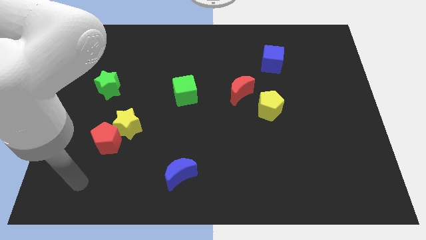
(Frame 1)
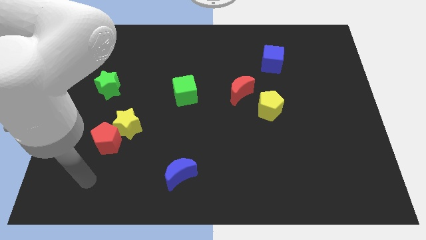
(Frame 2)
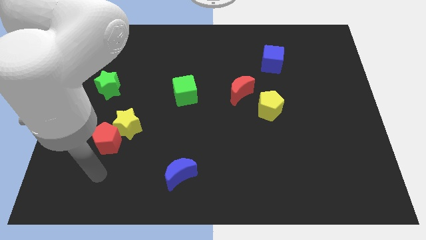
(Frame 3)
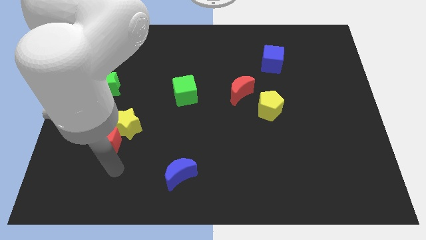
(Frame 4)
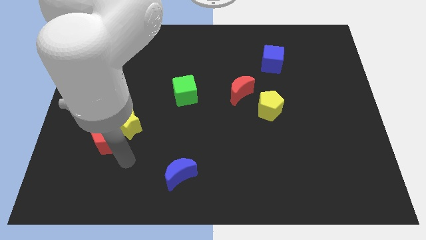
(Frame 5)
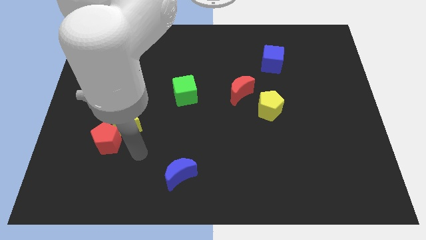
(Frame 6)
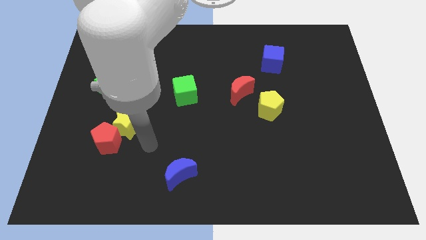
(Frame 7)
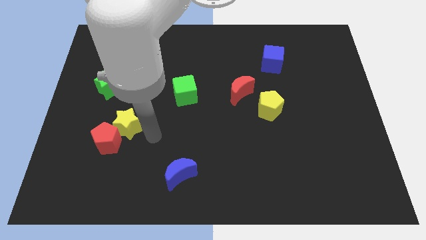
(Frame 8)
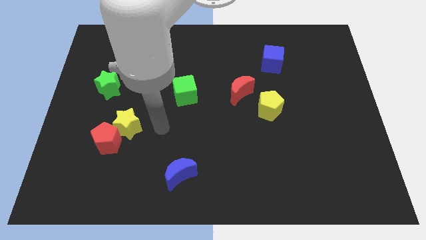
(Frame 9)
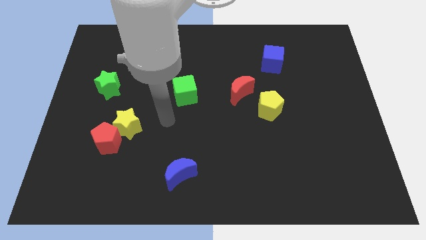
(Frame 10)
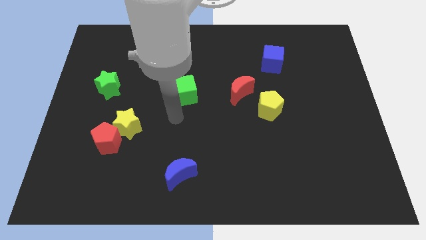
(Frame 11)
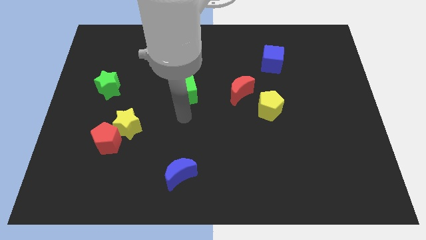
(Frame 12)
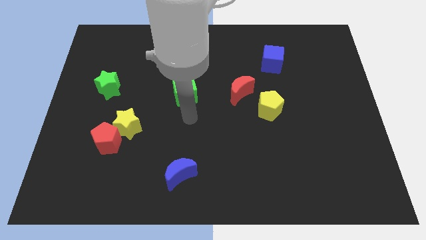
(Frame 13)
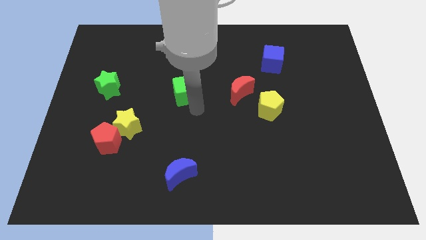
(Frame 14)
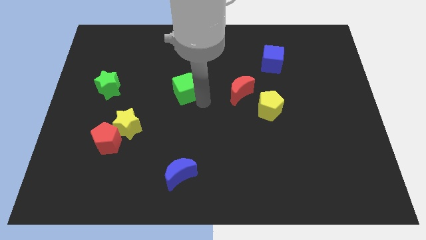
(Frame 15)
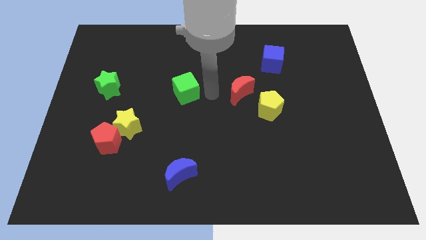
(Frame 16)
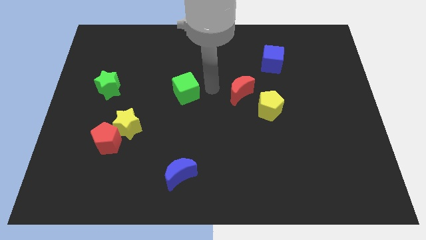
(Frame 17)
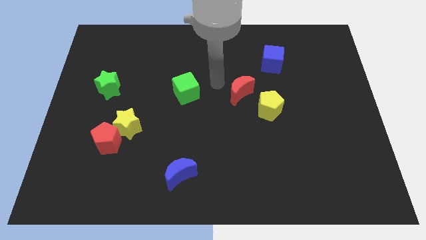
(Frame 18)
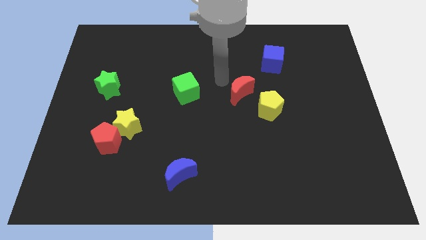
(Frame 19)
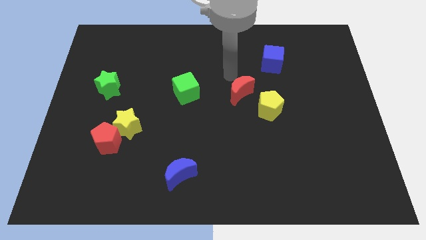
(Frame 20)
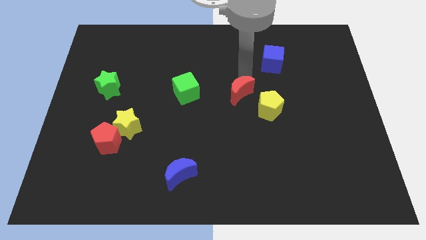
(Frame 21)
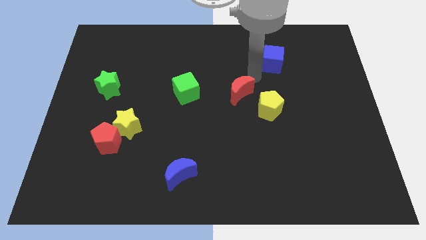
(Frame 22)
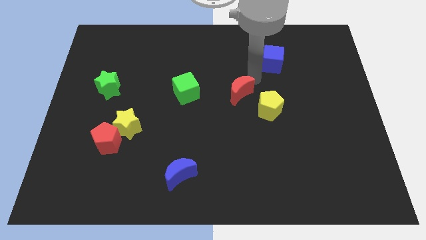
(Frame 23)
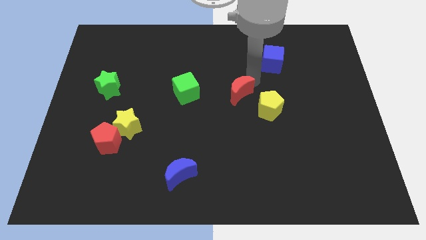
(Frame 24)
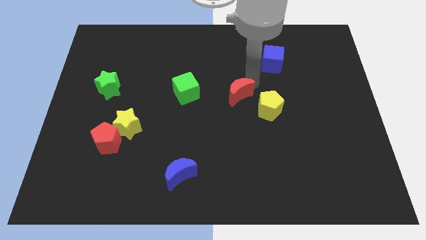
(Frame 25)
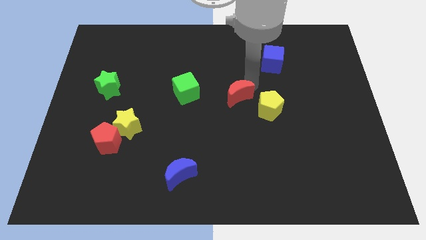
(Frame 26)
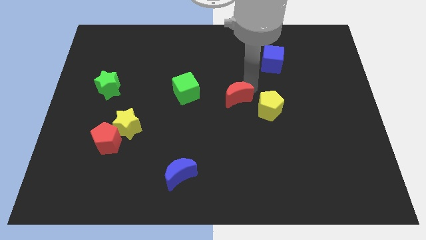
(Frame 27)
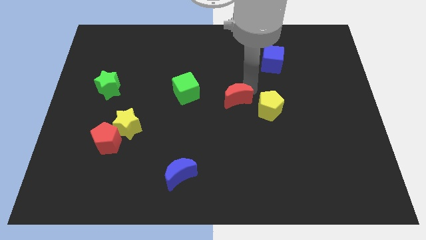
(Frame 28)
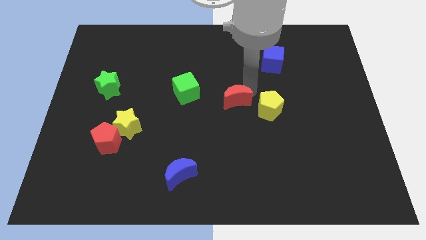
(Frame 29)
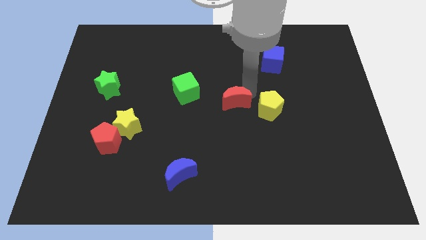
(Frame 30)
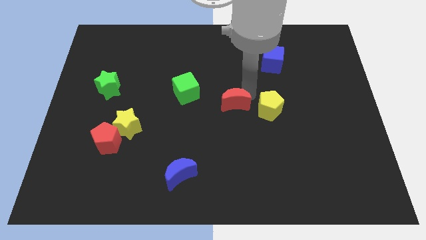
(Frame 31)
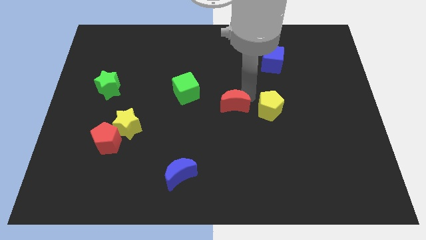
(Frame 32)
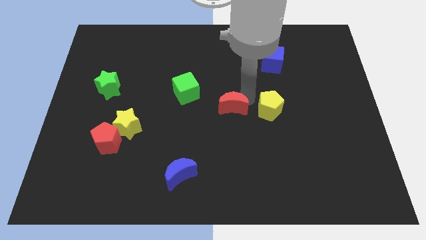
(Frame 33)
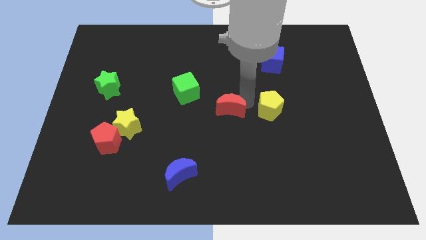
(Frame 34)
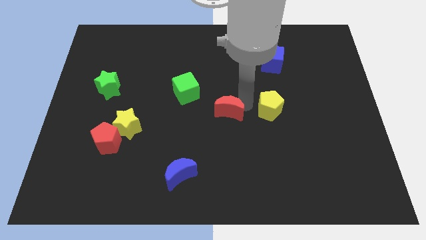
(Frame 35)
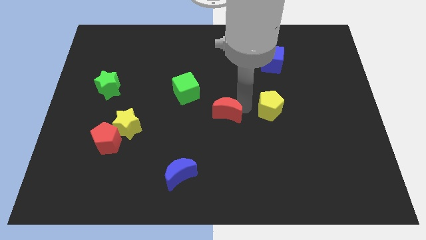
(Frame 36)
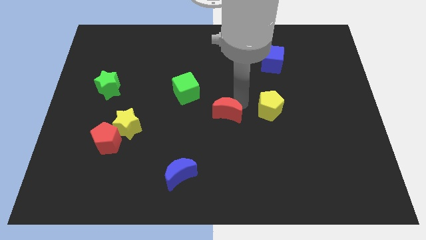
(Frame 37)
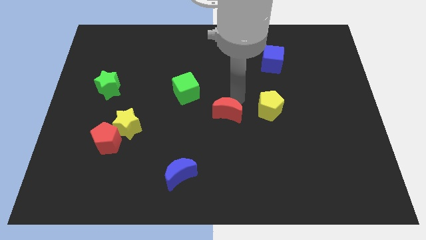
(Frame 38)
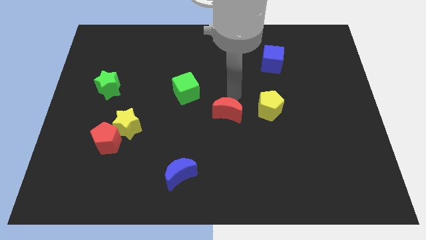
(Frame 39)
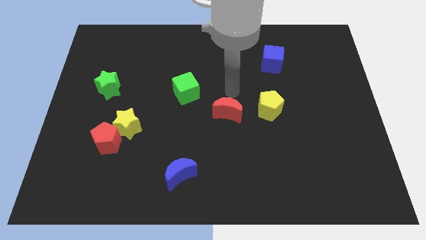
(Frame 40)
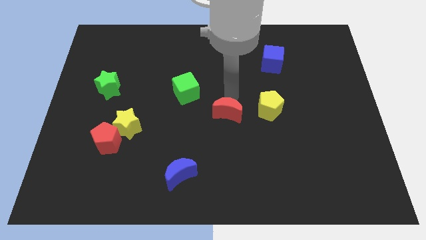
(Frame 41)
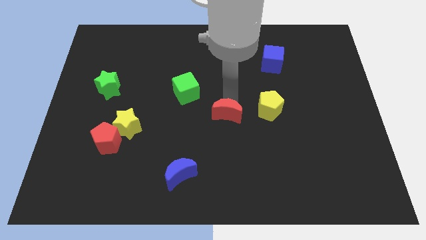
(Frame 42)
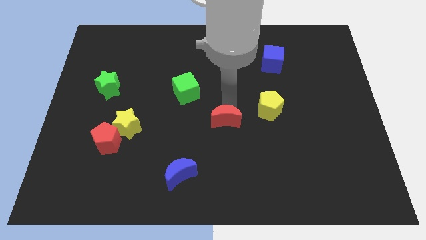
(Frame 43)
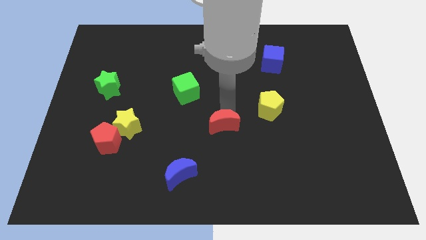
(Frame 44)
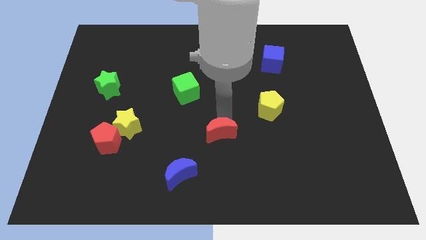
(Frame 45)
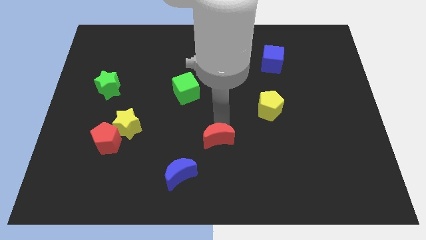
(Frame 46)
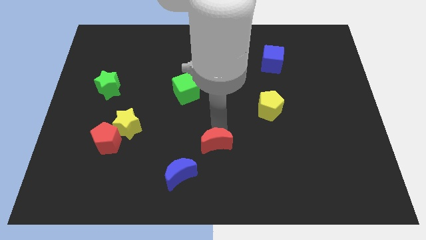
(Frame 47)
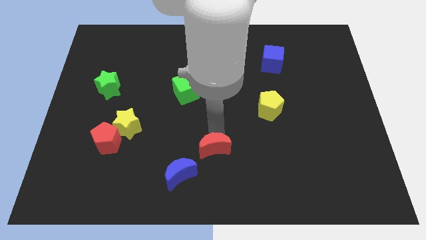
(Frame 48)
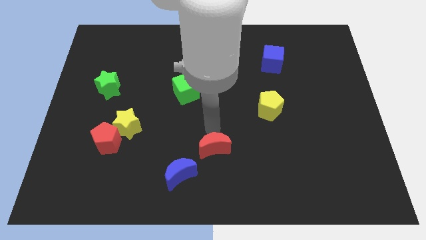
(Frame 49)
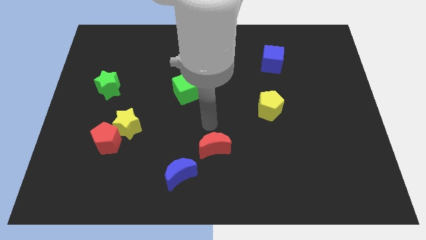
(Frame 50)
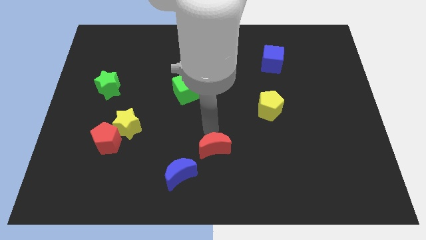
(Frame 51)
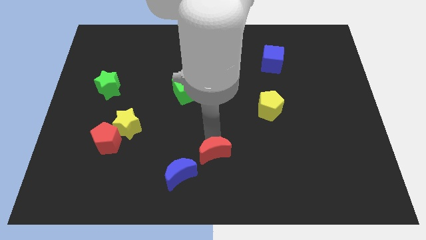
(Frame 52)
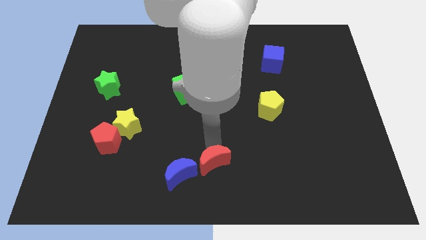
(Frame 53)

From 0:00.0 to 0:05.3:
put the red moon to the bottom
